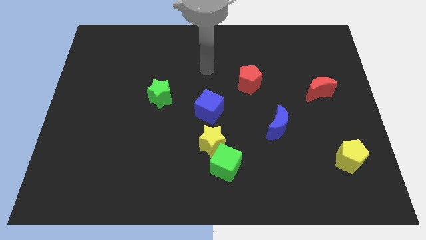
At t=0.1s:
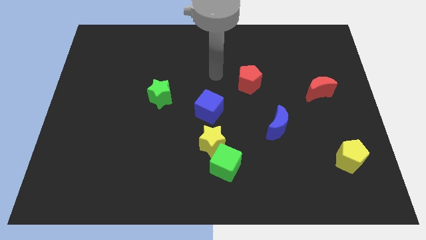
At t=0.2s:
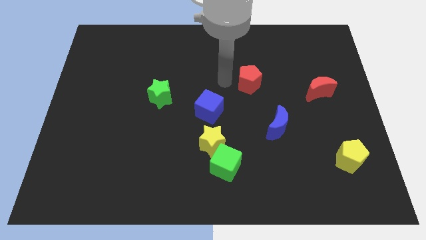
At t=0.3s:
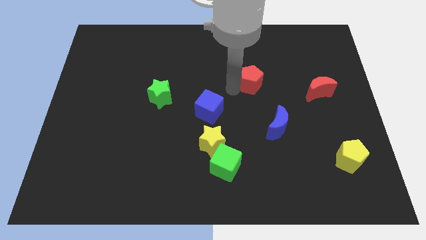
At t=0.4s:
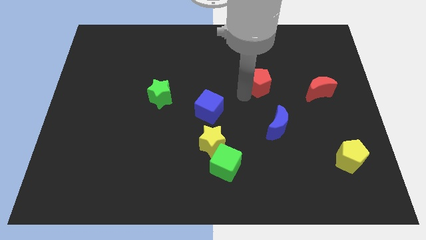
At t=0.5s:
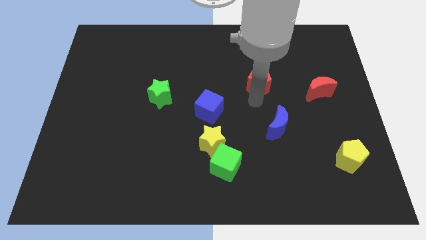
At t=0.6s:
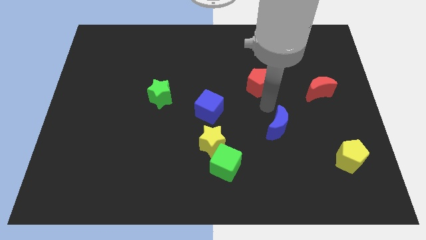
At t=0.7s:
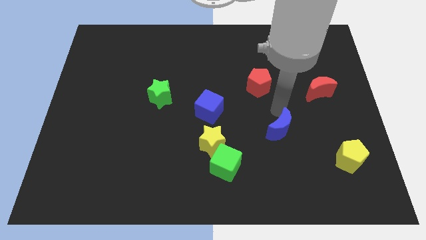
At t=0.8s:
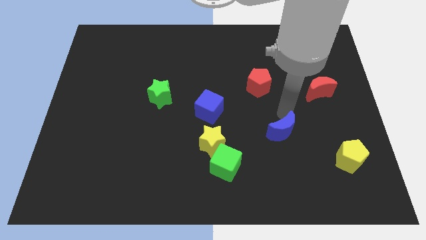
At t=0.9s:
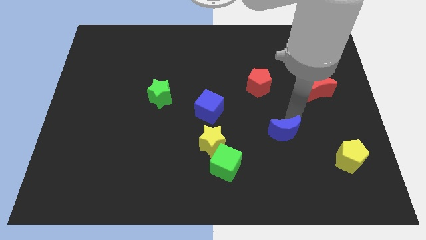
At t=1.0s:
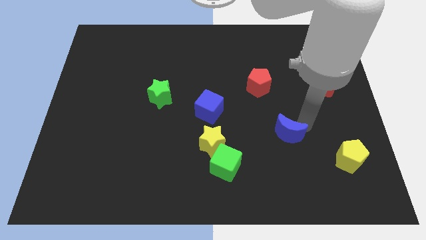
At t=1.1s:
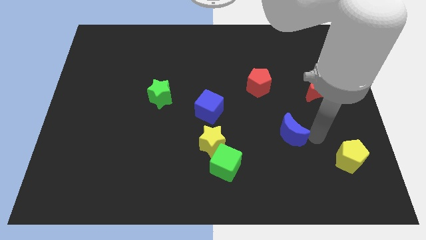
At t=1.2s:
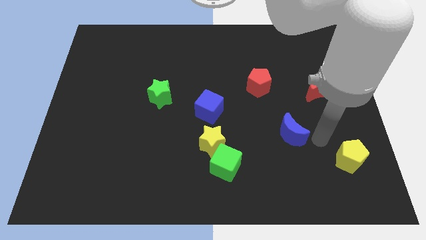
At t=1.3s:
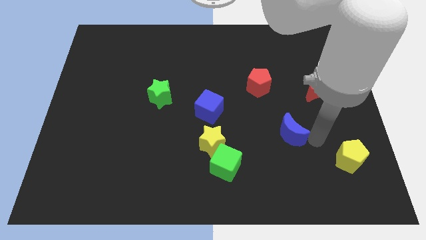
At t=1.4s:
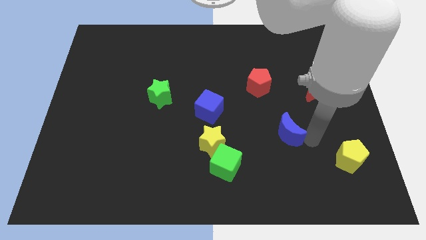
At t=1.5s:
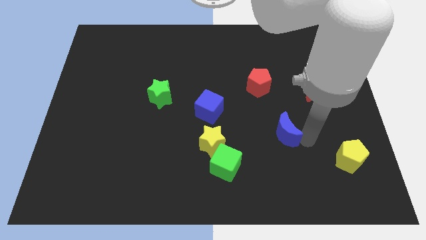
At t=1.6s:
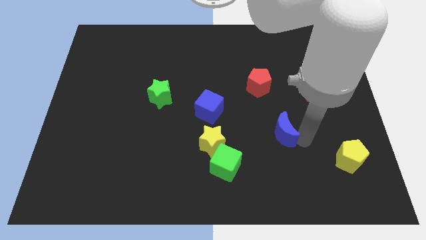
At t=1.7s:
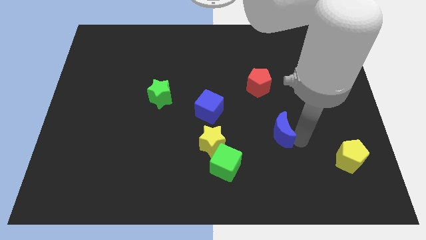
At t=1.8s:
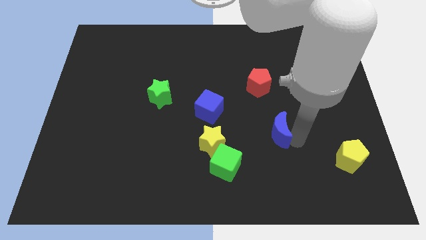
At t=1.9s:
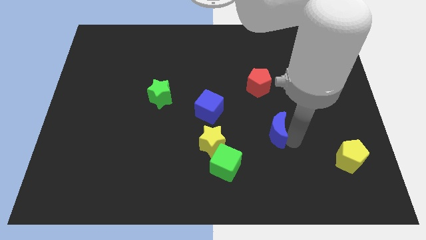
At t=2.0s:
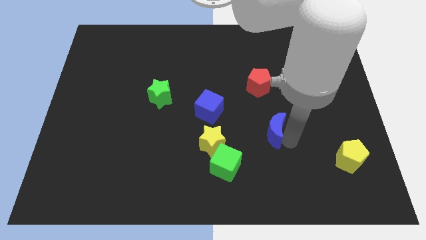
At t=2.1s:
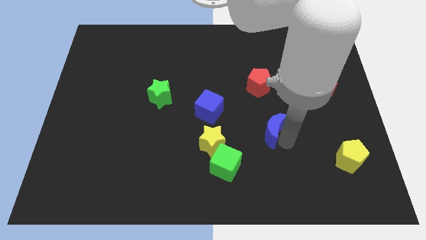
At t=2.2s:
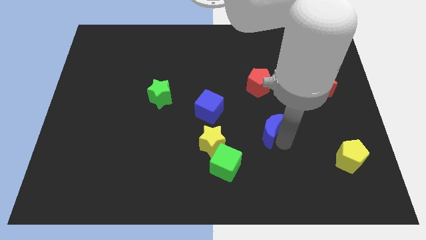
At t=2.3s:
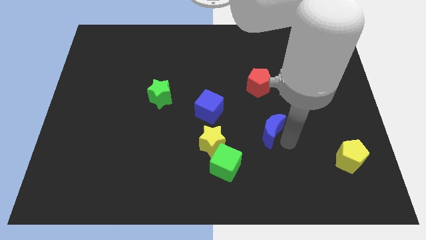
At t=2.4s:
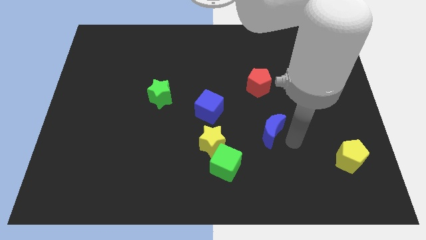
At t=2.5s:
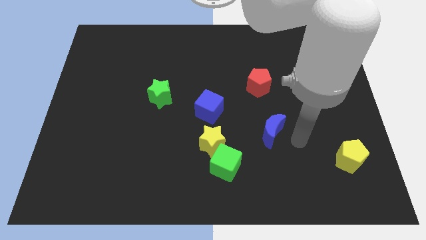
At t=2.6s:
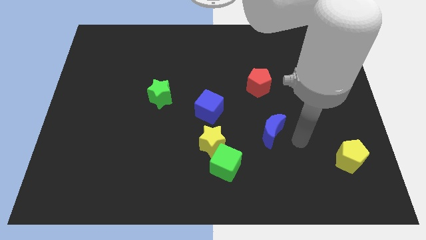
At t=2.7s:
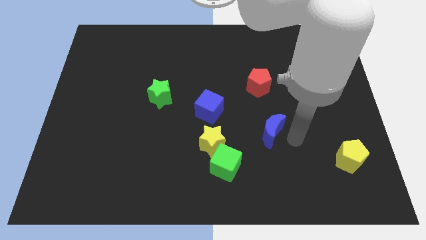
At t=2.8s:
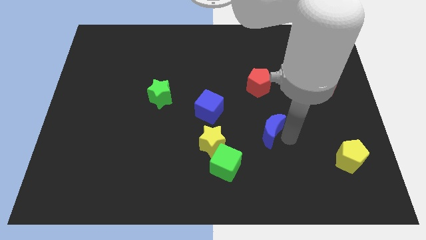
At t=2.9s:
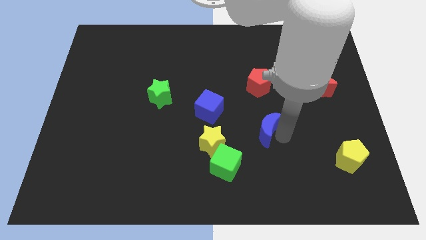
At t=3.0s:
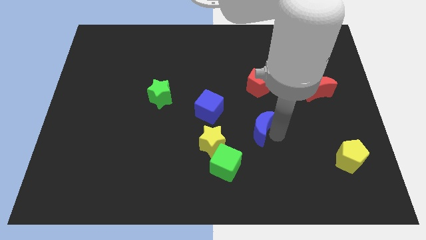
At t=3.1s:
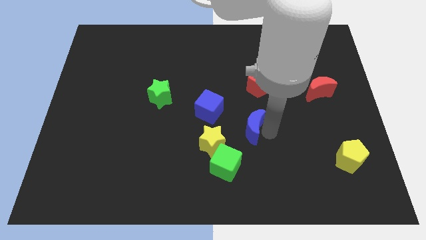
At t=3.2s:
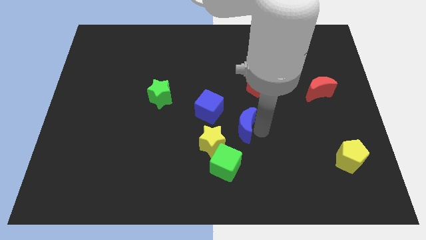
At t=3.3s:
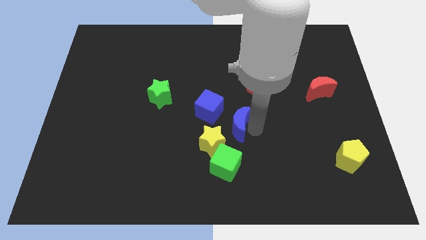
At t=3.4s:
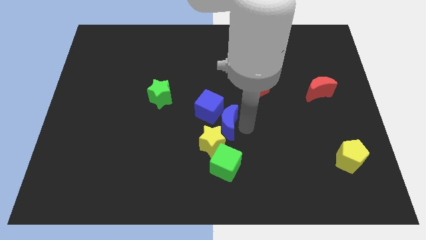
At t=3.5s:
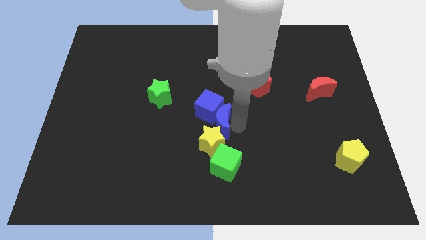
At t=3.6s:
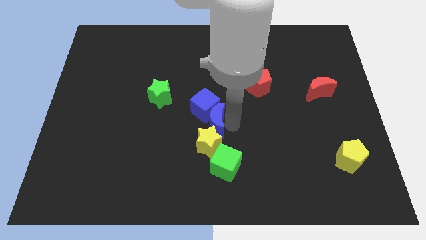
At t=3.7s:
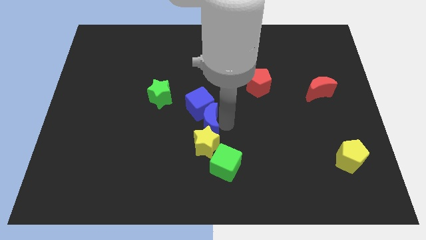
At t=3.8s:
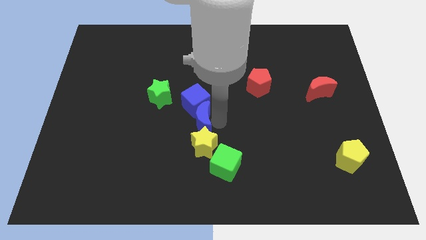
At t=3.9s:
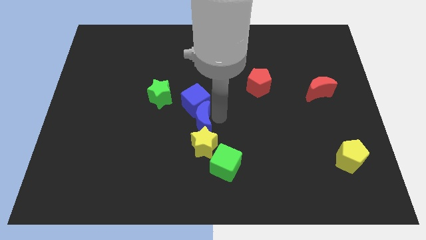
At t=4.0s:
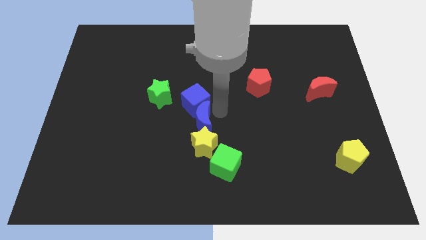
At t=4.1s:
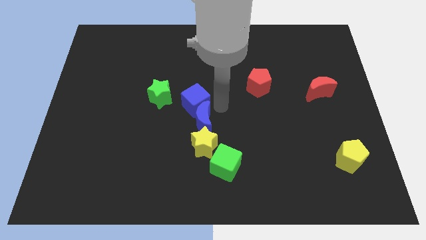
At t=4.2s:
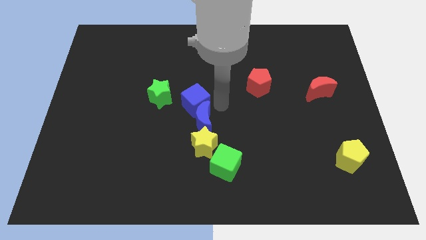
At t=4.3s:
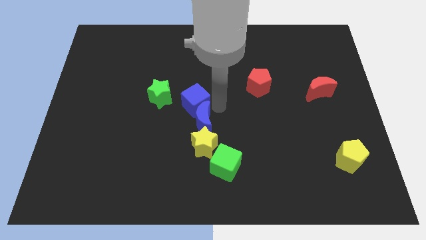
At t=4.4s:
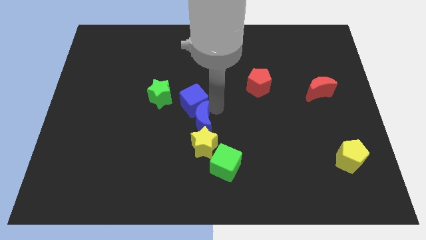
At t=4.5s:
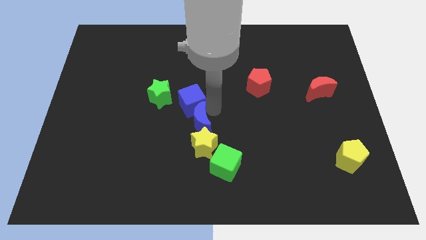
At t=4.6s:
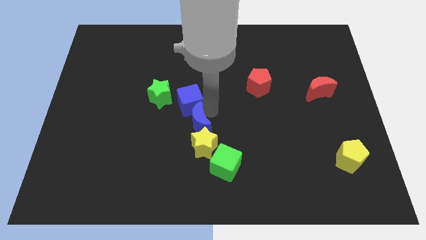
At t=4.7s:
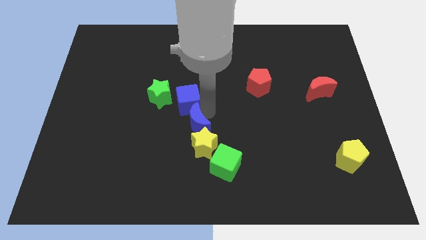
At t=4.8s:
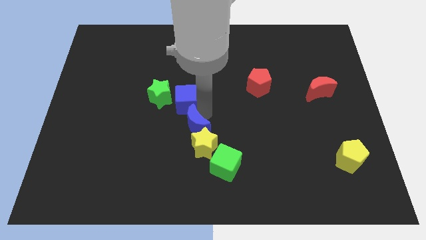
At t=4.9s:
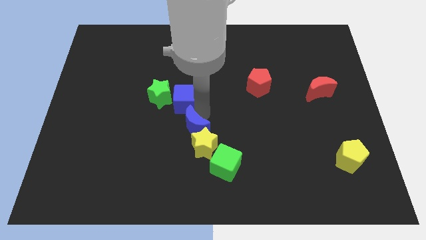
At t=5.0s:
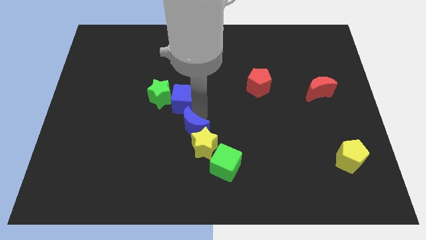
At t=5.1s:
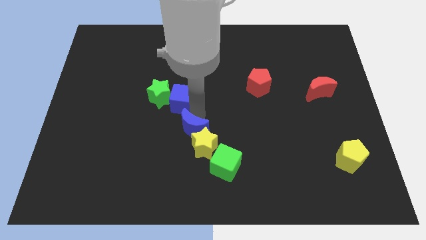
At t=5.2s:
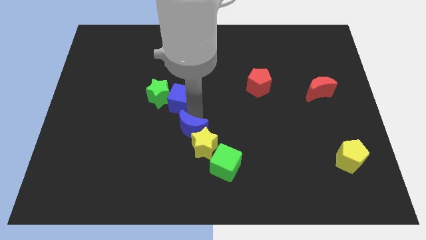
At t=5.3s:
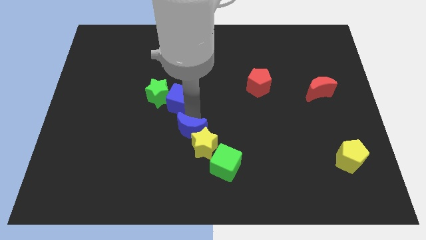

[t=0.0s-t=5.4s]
push the blue moon to the left of the yellow star

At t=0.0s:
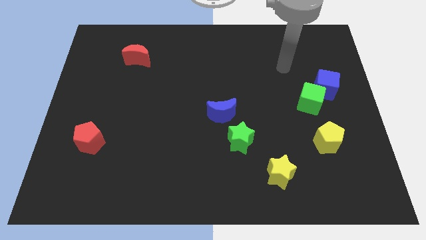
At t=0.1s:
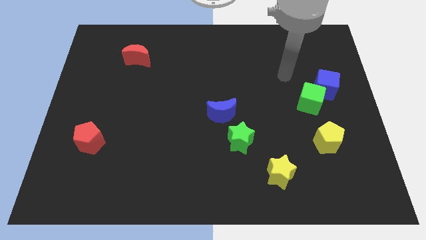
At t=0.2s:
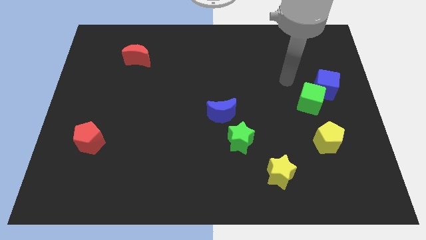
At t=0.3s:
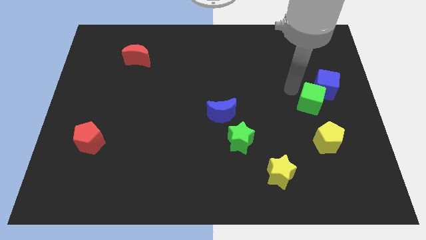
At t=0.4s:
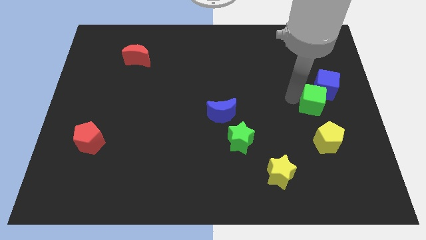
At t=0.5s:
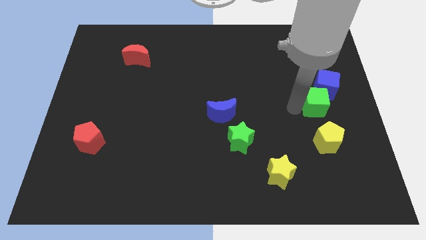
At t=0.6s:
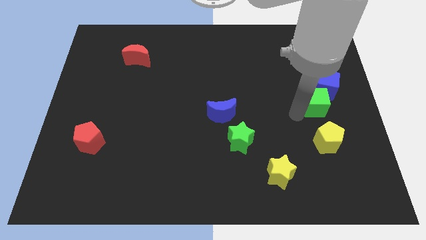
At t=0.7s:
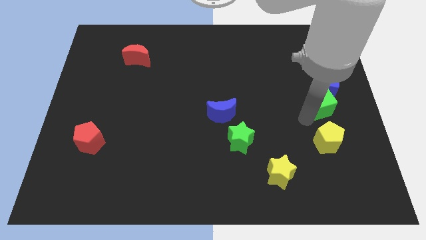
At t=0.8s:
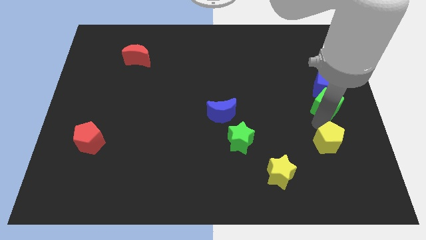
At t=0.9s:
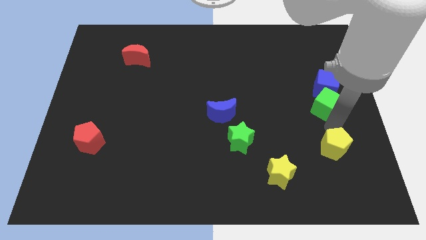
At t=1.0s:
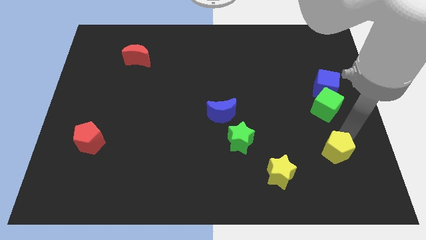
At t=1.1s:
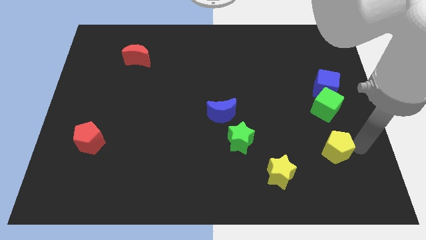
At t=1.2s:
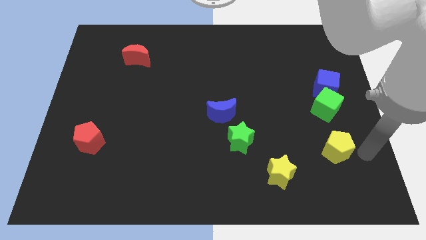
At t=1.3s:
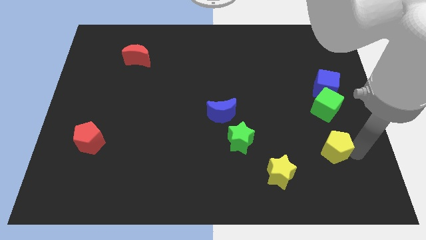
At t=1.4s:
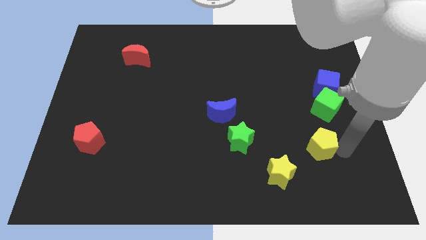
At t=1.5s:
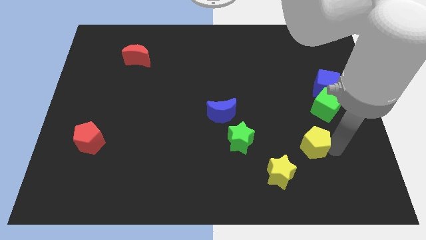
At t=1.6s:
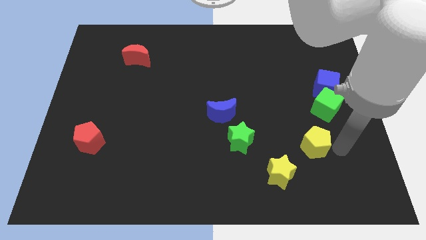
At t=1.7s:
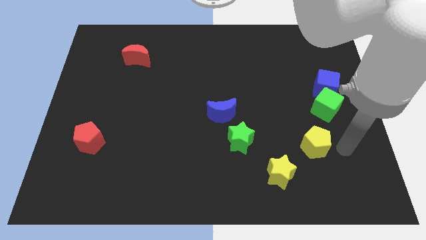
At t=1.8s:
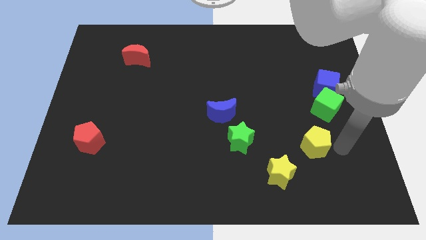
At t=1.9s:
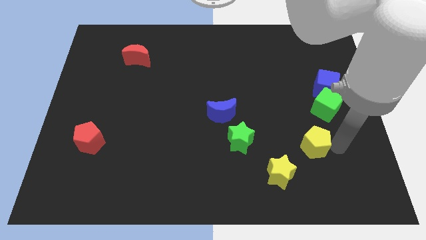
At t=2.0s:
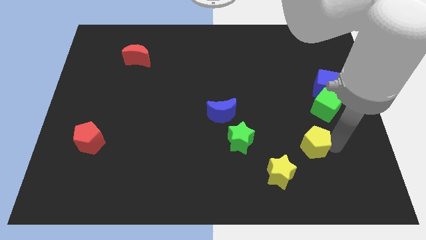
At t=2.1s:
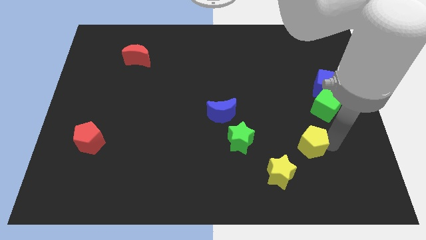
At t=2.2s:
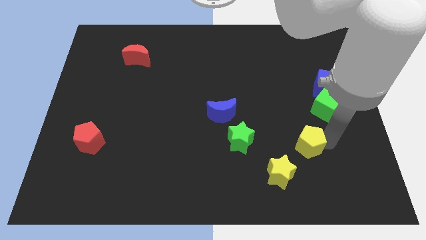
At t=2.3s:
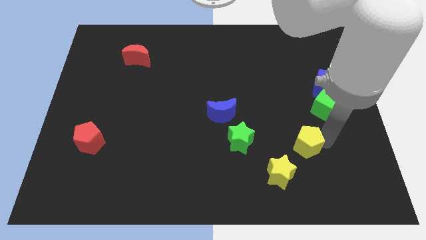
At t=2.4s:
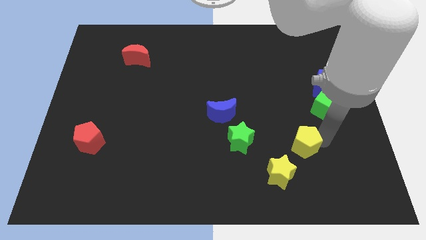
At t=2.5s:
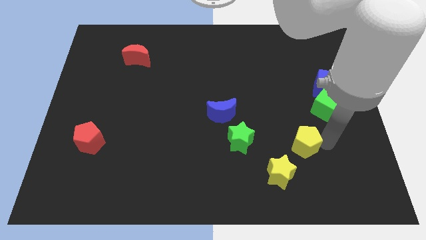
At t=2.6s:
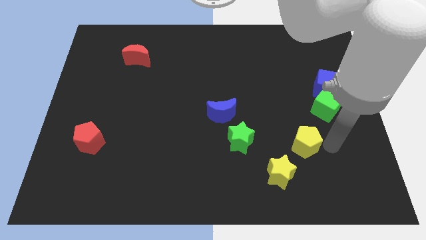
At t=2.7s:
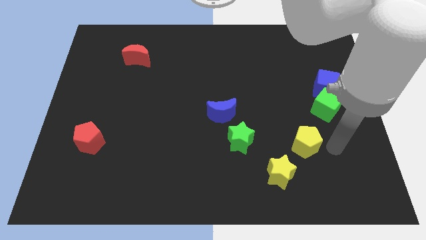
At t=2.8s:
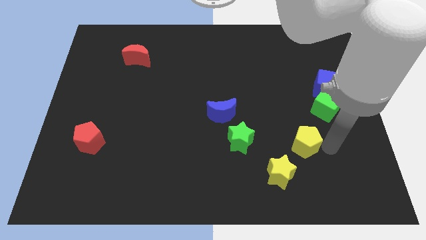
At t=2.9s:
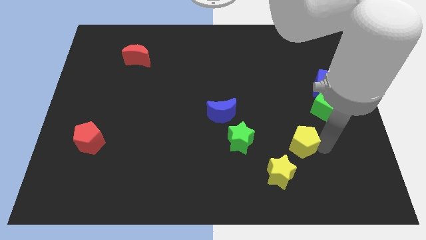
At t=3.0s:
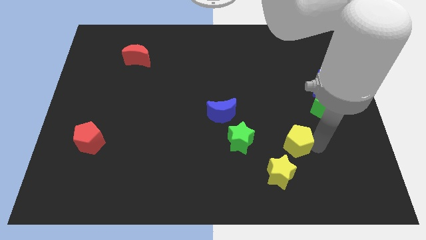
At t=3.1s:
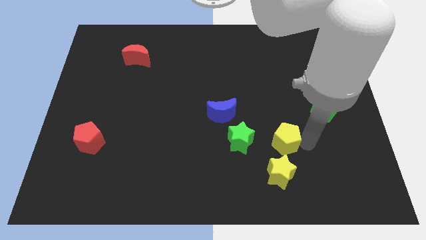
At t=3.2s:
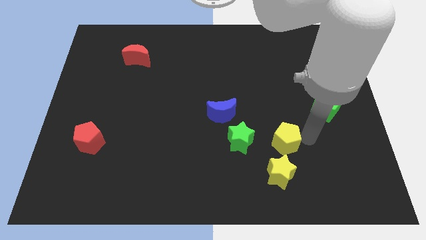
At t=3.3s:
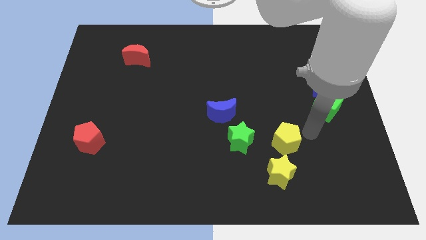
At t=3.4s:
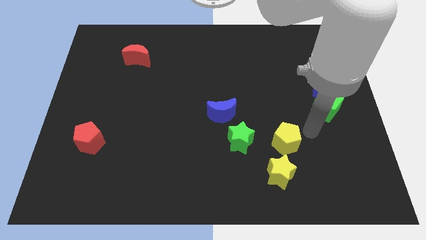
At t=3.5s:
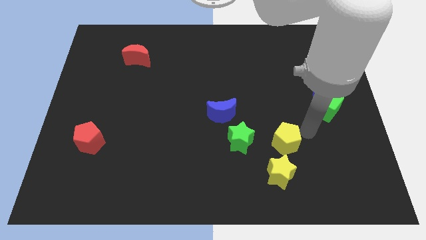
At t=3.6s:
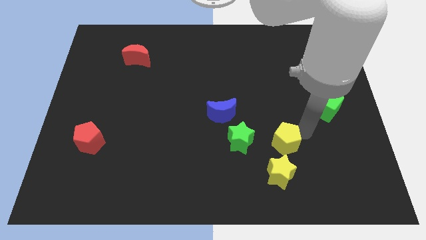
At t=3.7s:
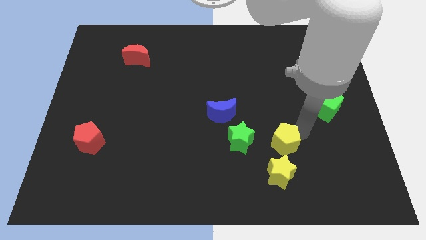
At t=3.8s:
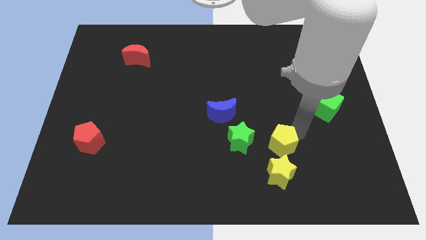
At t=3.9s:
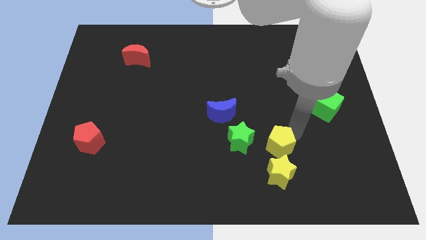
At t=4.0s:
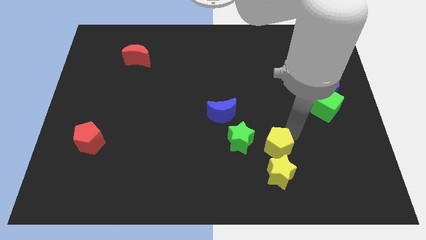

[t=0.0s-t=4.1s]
push the yellow pentagon diagonally up and to the left of the yellow star
